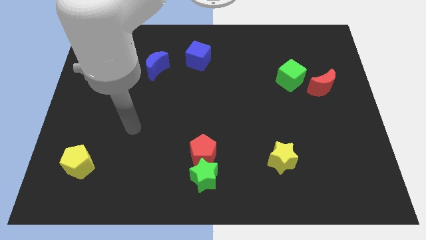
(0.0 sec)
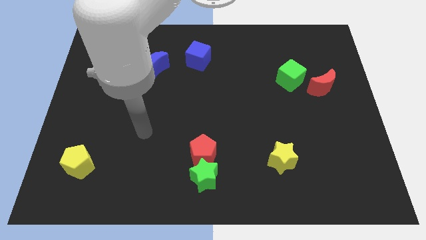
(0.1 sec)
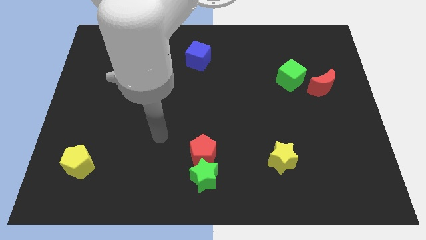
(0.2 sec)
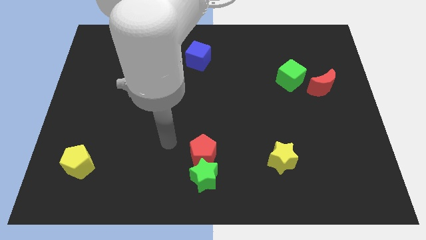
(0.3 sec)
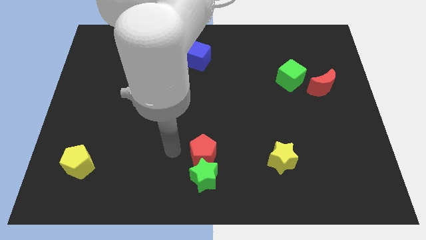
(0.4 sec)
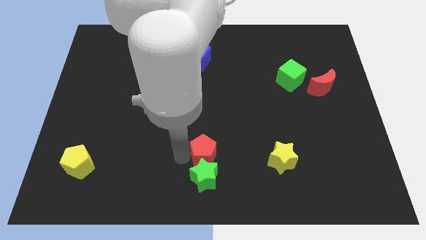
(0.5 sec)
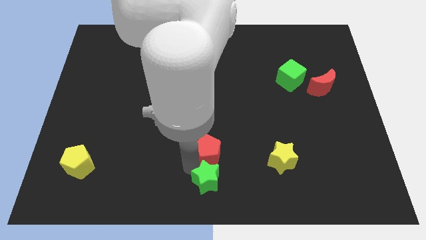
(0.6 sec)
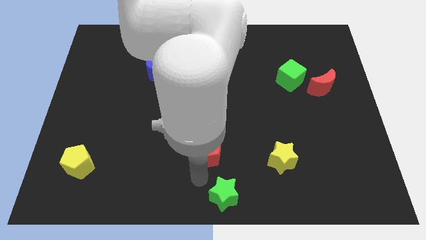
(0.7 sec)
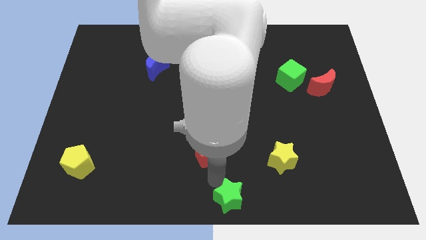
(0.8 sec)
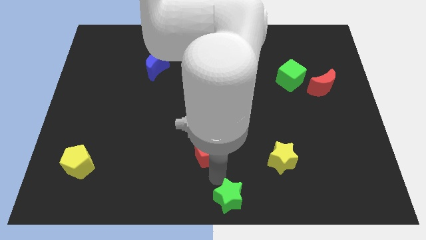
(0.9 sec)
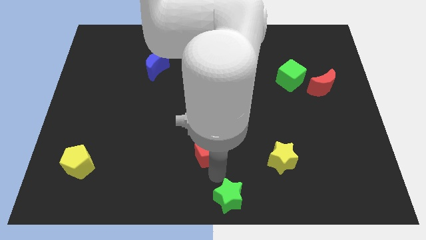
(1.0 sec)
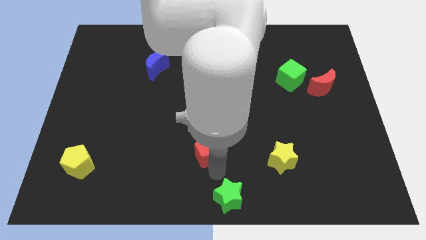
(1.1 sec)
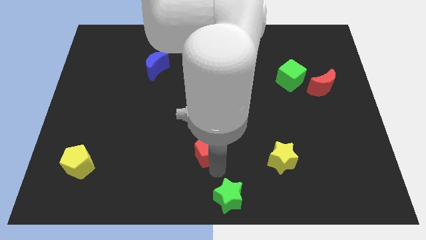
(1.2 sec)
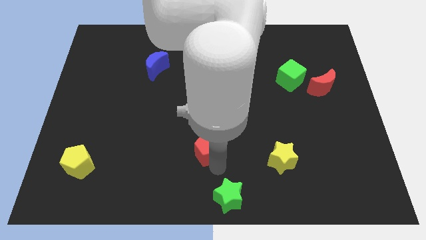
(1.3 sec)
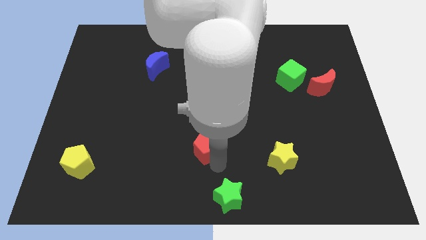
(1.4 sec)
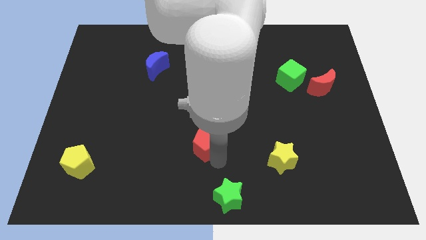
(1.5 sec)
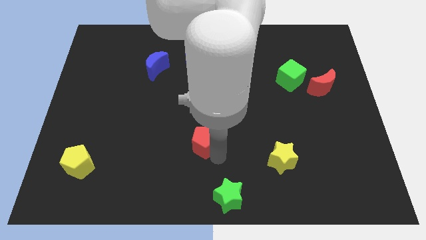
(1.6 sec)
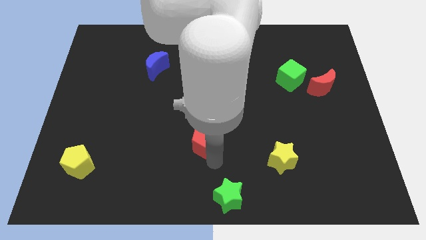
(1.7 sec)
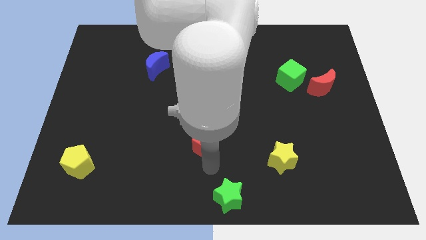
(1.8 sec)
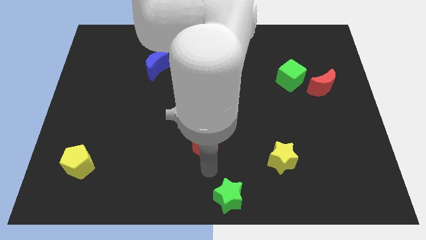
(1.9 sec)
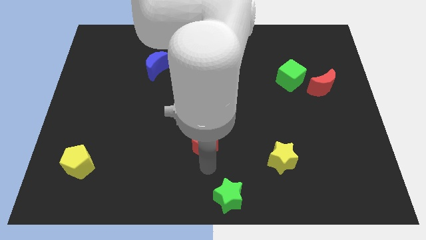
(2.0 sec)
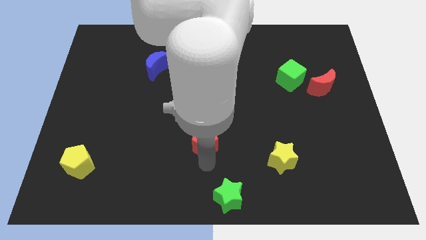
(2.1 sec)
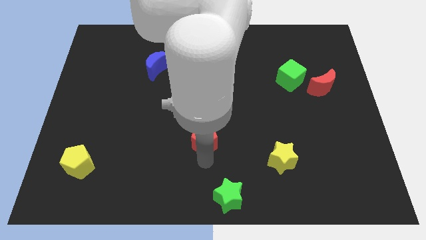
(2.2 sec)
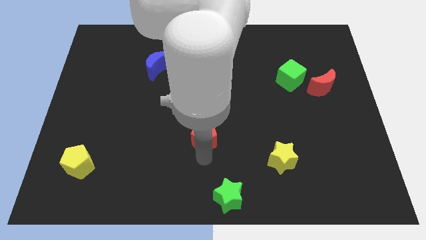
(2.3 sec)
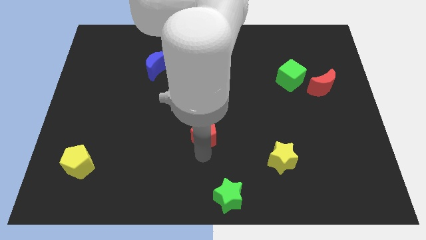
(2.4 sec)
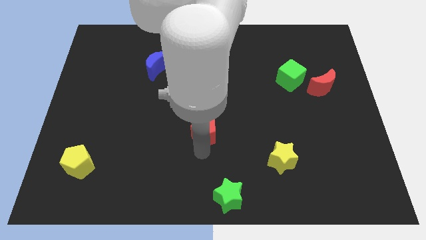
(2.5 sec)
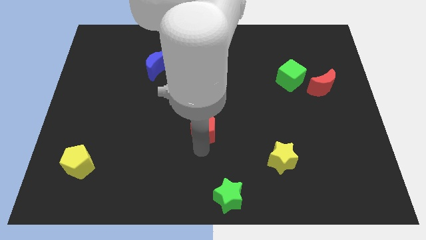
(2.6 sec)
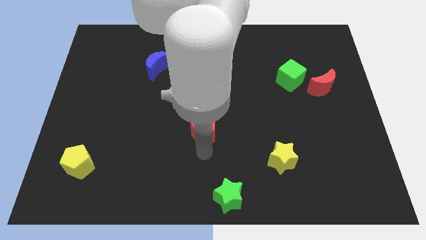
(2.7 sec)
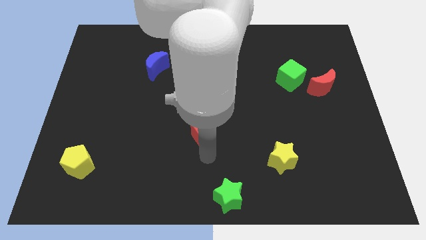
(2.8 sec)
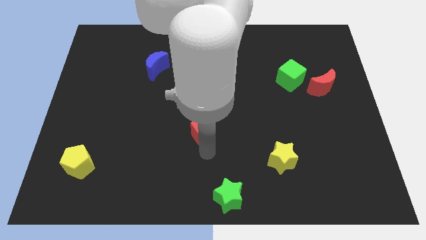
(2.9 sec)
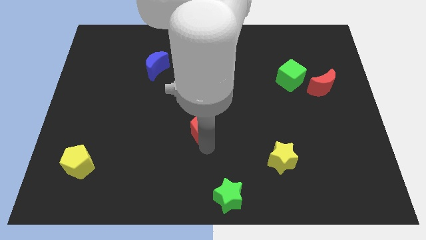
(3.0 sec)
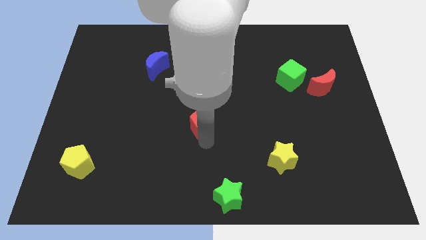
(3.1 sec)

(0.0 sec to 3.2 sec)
slide the red pentagon up a little bit

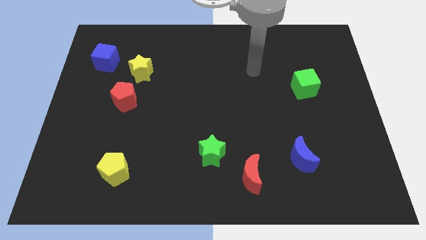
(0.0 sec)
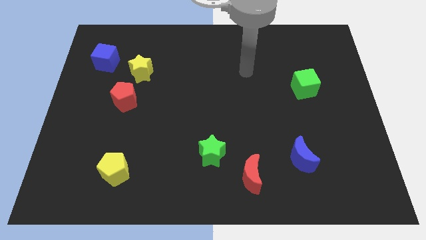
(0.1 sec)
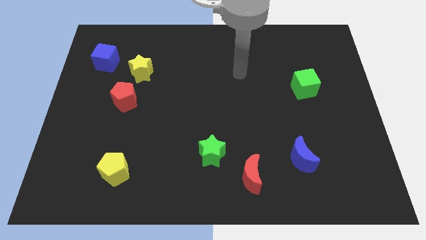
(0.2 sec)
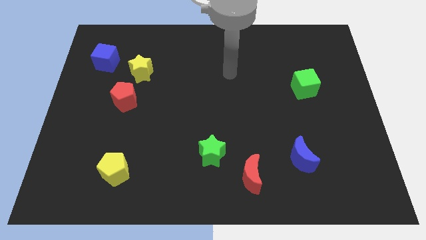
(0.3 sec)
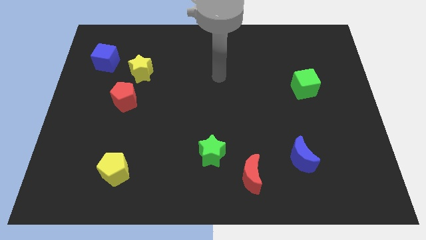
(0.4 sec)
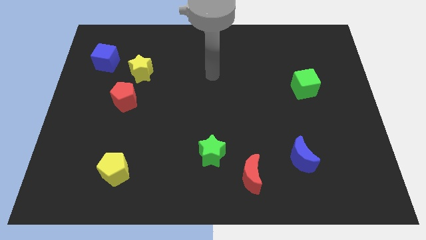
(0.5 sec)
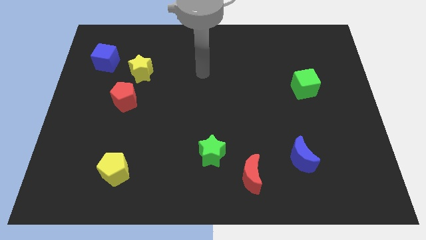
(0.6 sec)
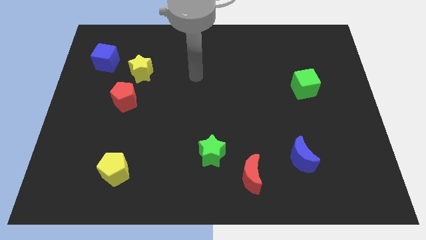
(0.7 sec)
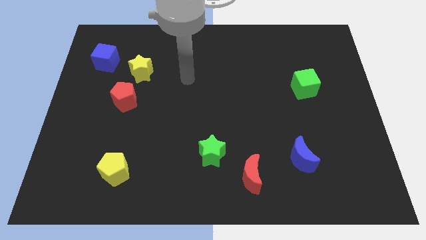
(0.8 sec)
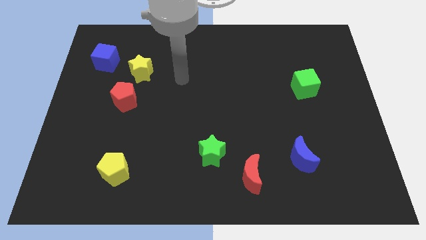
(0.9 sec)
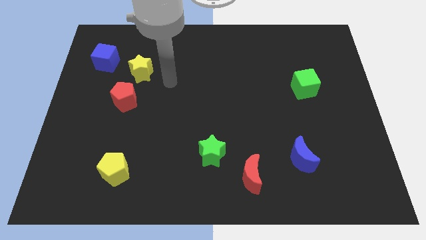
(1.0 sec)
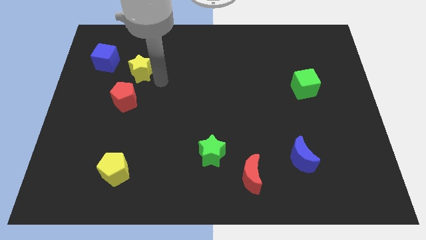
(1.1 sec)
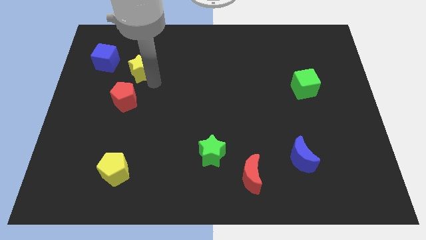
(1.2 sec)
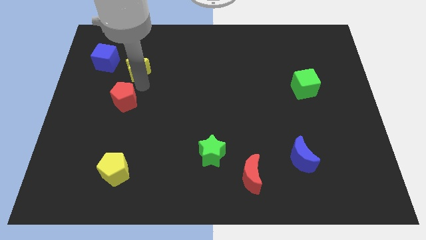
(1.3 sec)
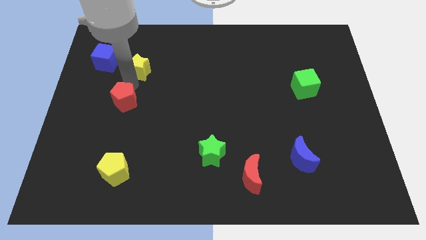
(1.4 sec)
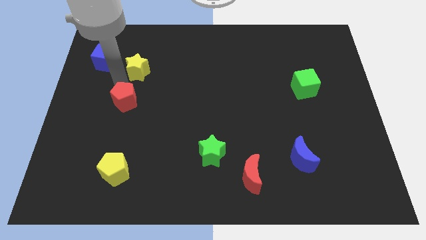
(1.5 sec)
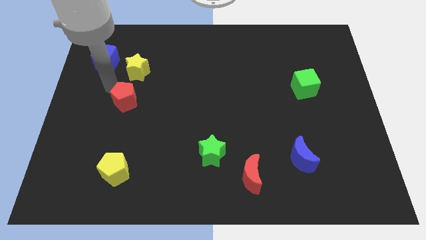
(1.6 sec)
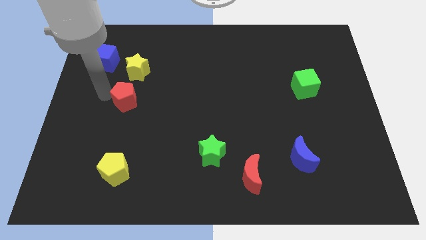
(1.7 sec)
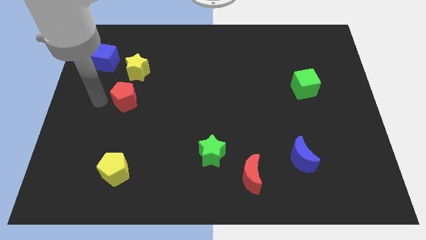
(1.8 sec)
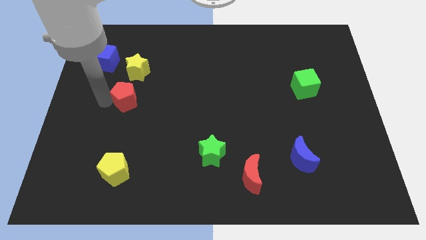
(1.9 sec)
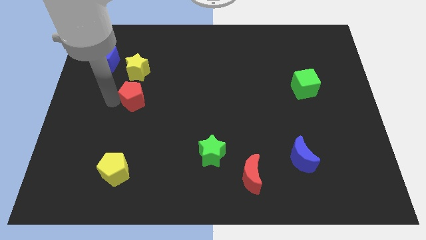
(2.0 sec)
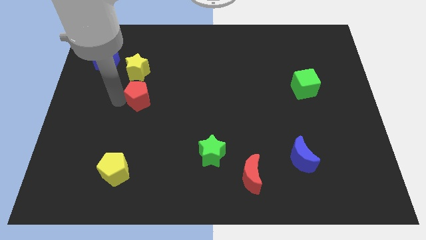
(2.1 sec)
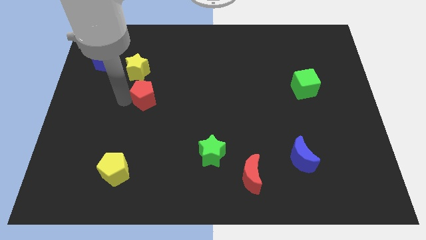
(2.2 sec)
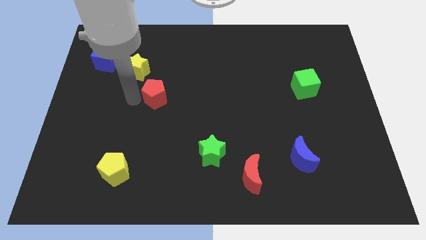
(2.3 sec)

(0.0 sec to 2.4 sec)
slightly move the red pentagon right

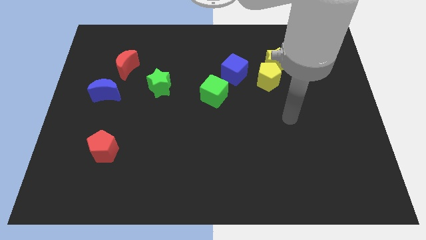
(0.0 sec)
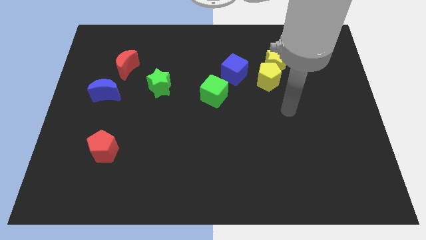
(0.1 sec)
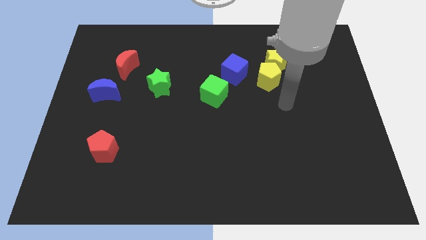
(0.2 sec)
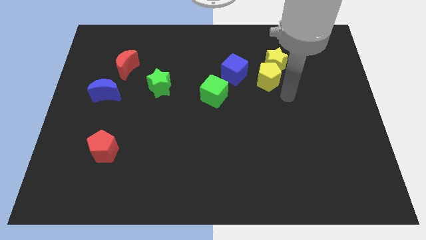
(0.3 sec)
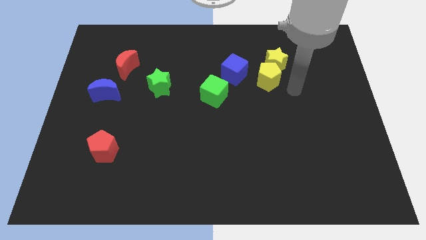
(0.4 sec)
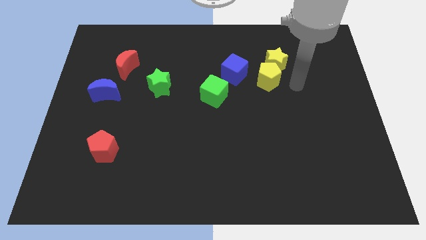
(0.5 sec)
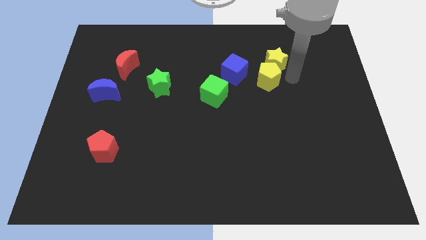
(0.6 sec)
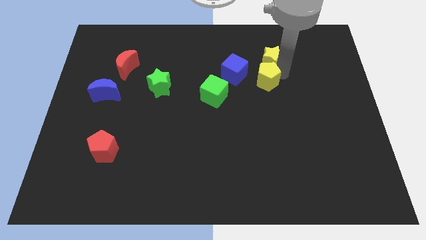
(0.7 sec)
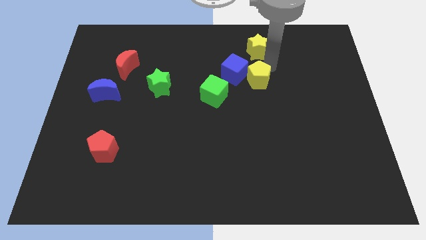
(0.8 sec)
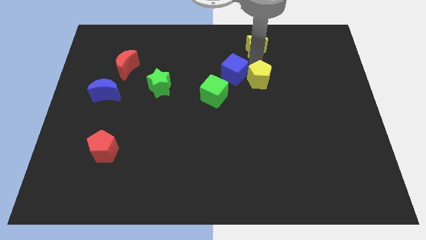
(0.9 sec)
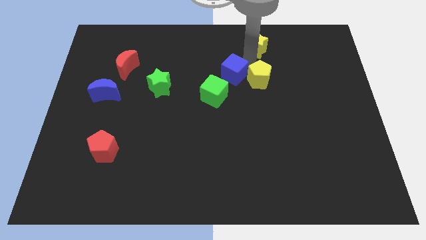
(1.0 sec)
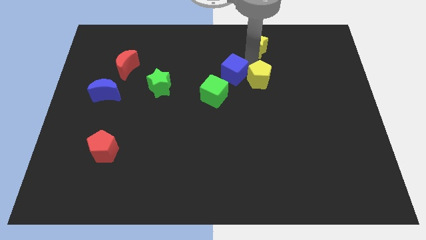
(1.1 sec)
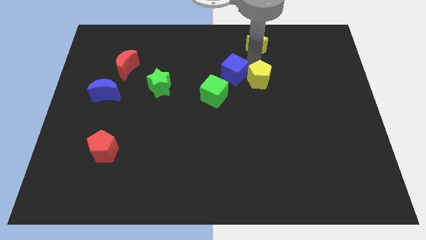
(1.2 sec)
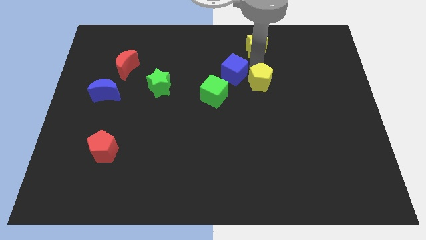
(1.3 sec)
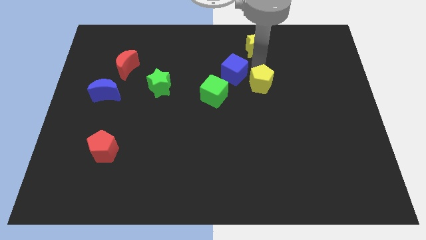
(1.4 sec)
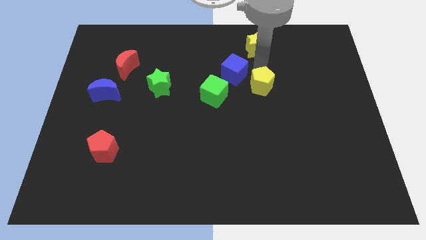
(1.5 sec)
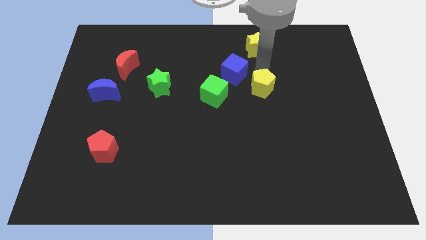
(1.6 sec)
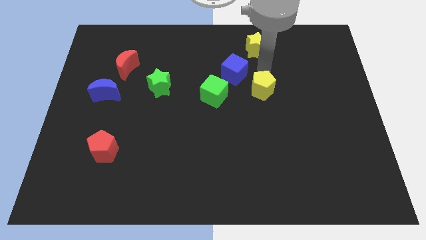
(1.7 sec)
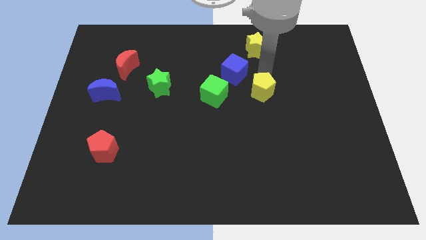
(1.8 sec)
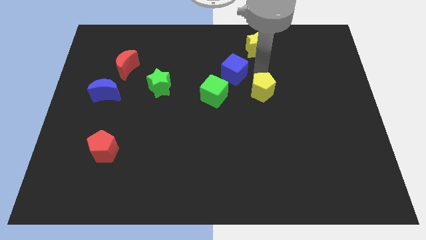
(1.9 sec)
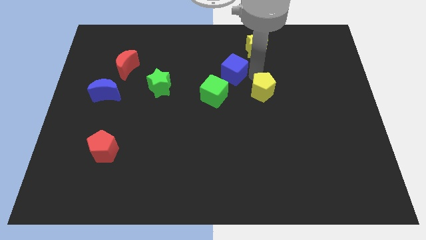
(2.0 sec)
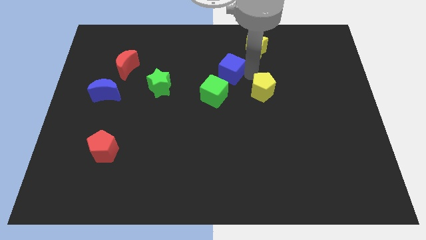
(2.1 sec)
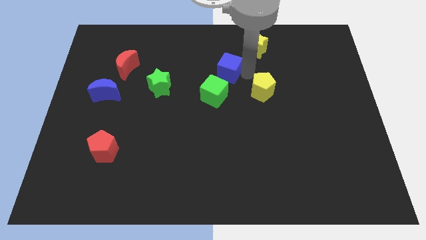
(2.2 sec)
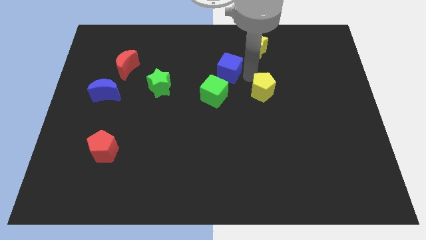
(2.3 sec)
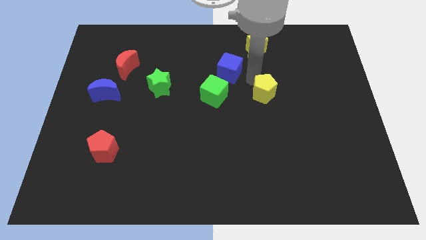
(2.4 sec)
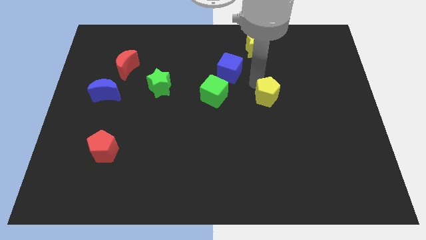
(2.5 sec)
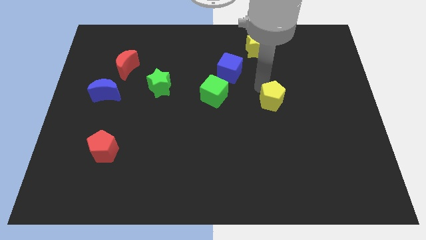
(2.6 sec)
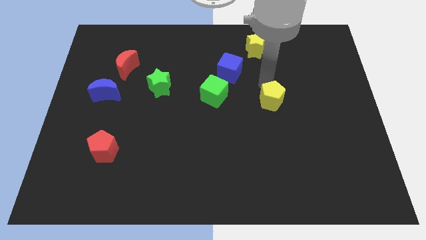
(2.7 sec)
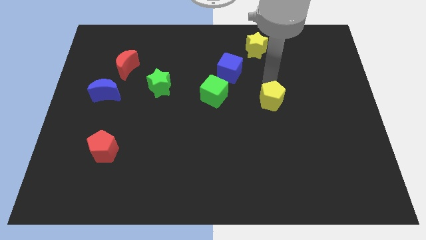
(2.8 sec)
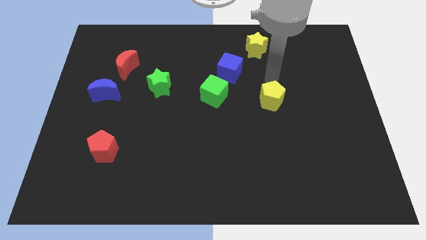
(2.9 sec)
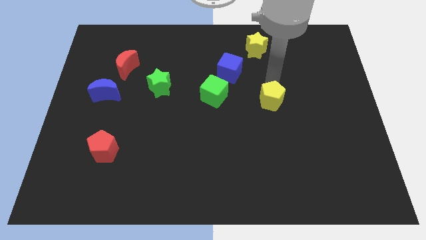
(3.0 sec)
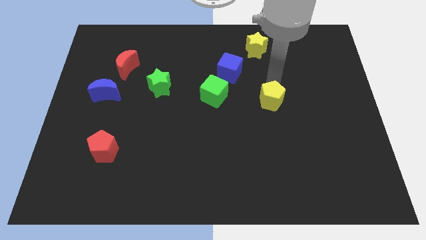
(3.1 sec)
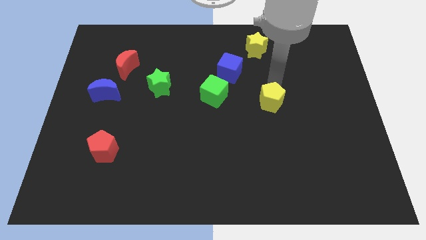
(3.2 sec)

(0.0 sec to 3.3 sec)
slightly push the yellow pentagon downwards
